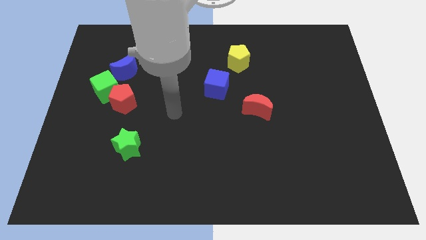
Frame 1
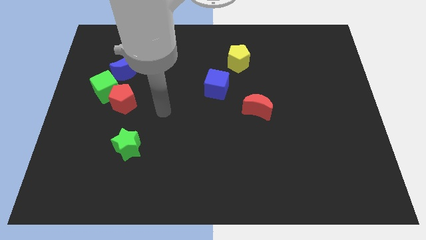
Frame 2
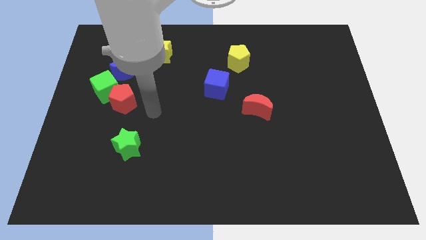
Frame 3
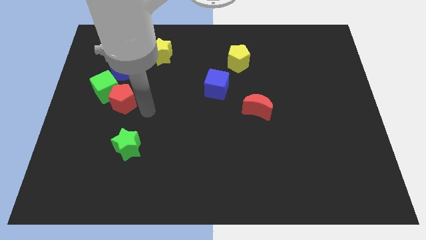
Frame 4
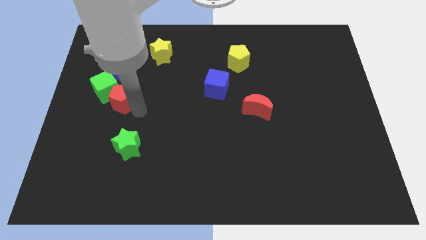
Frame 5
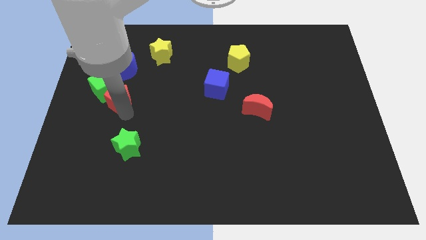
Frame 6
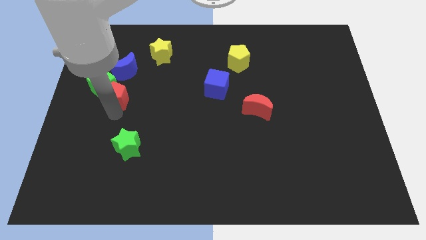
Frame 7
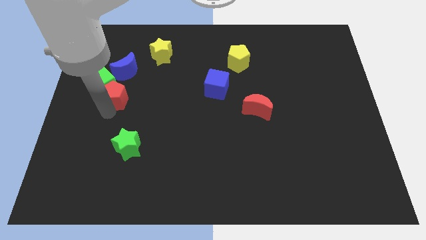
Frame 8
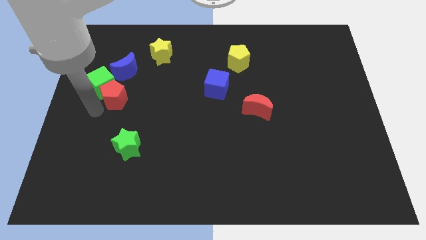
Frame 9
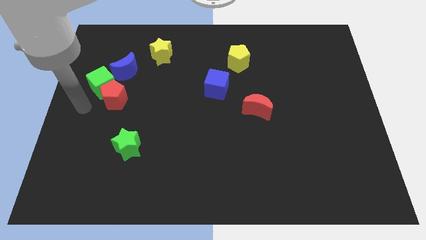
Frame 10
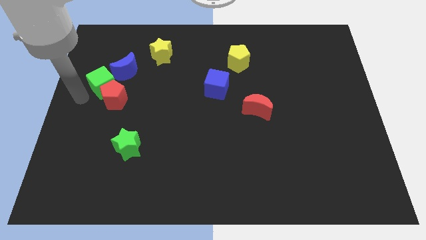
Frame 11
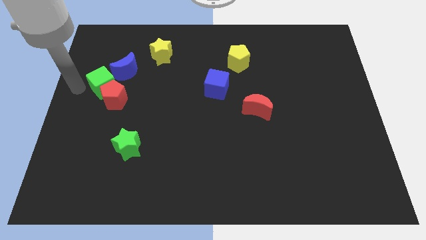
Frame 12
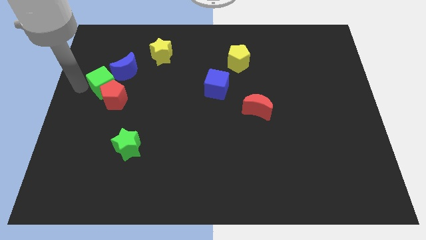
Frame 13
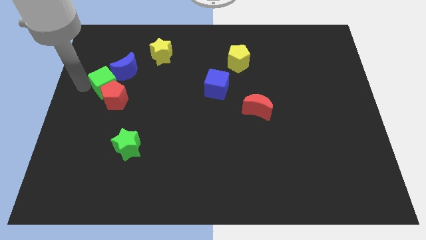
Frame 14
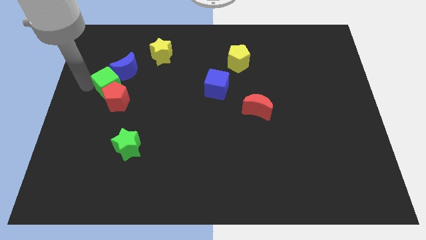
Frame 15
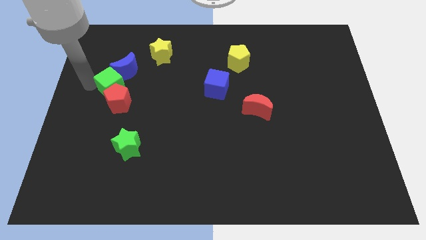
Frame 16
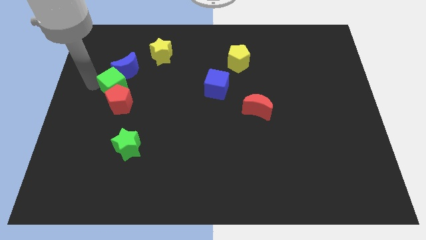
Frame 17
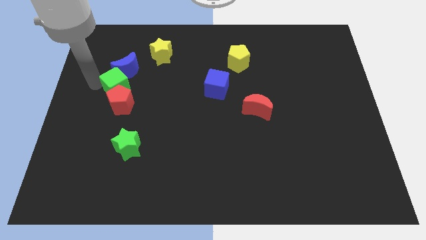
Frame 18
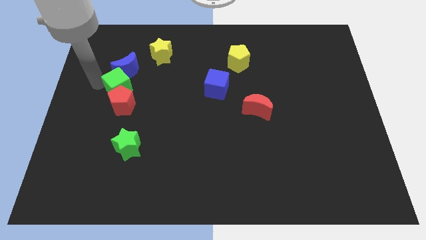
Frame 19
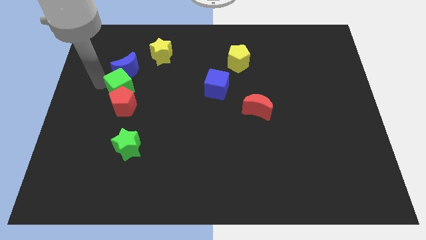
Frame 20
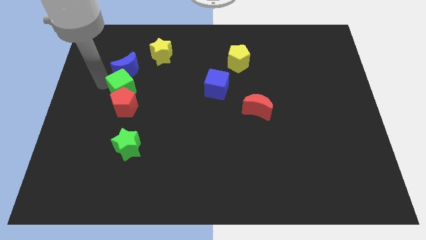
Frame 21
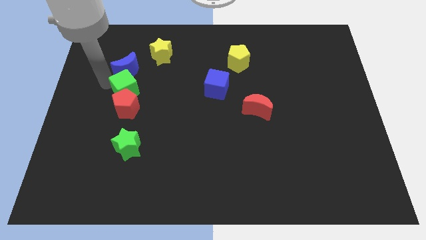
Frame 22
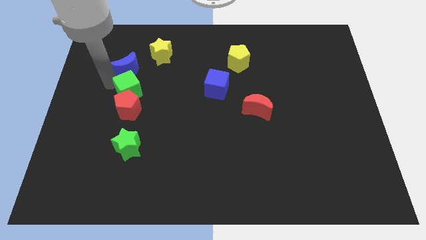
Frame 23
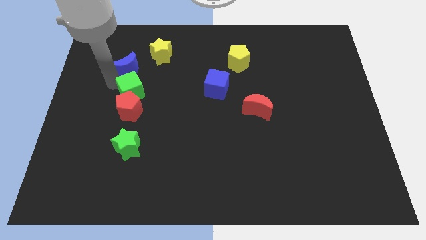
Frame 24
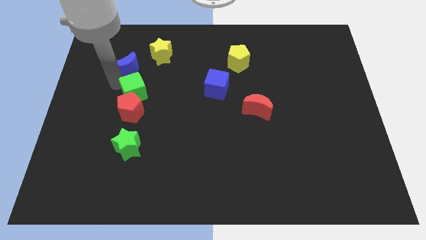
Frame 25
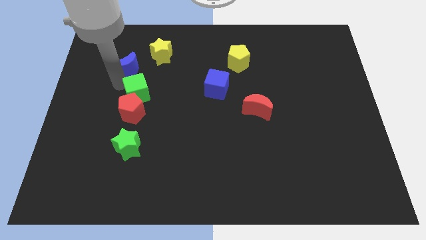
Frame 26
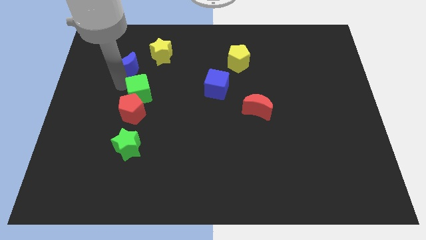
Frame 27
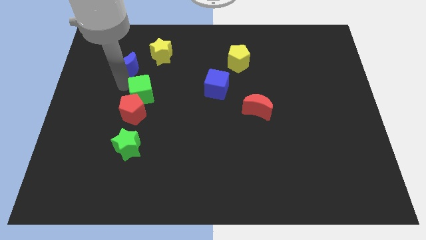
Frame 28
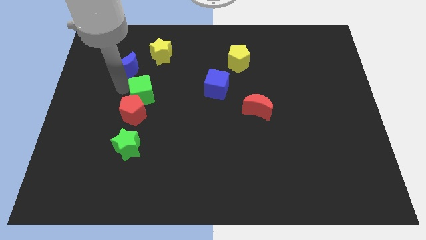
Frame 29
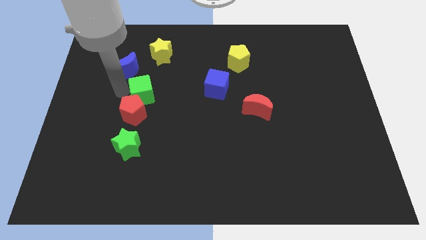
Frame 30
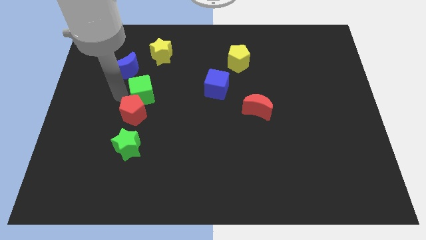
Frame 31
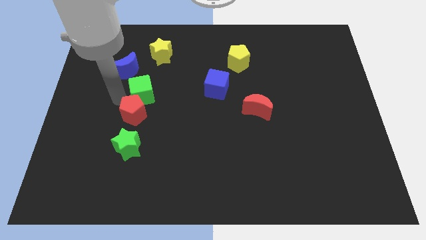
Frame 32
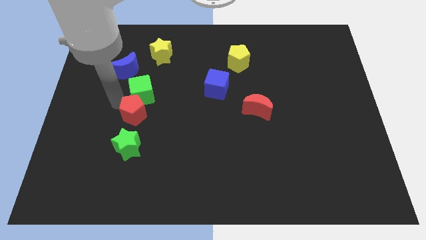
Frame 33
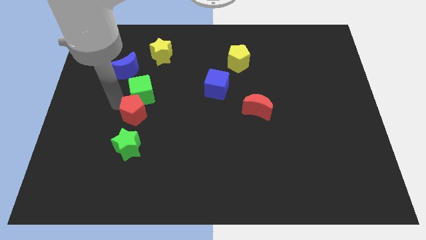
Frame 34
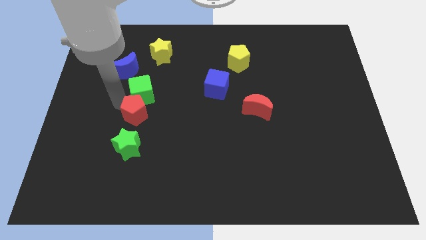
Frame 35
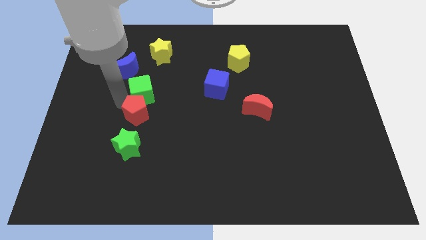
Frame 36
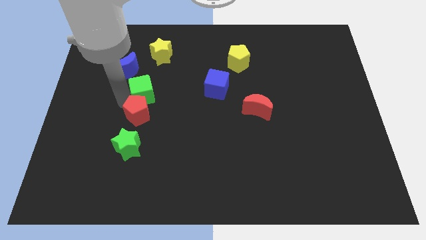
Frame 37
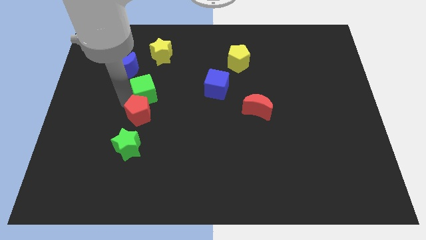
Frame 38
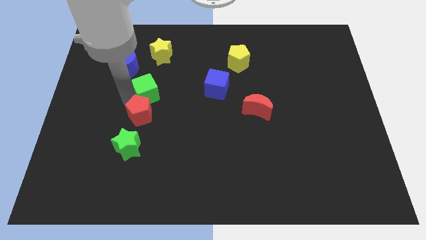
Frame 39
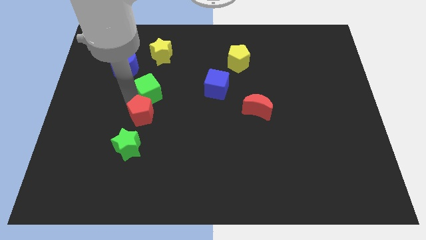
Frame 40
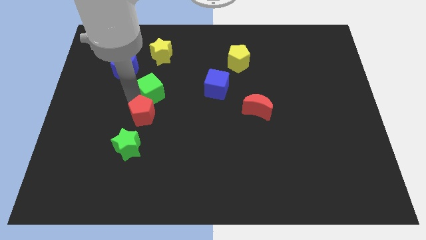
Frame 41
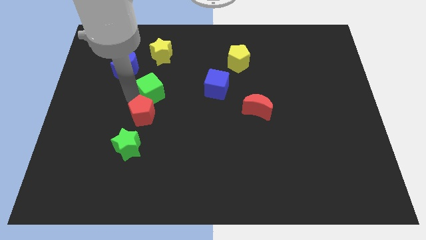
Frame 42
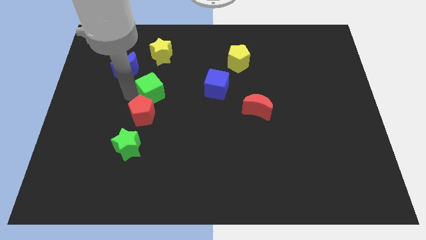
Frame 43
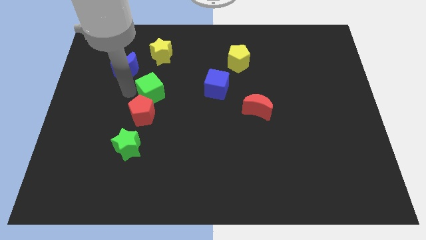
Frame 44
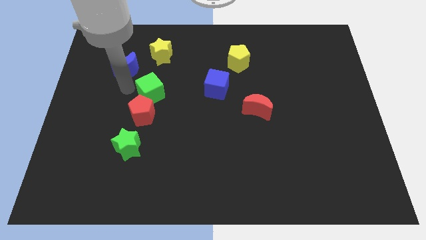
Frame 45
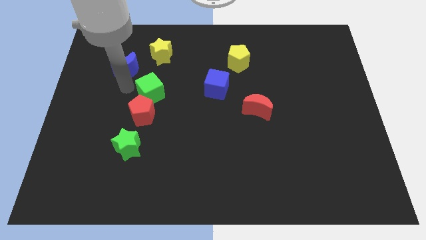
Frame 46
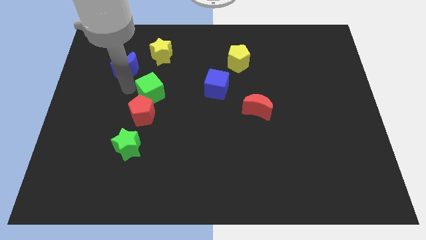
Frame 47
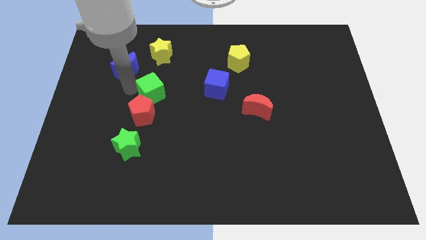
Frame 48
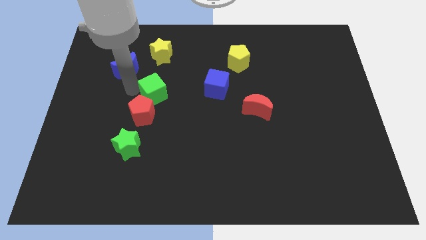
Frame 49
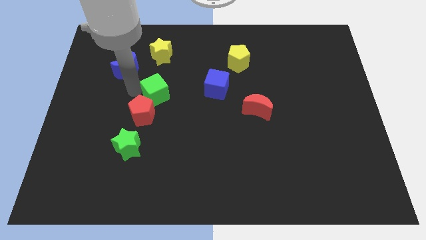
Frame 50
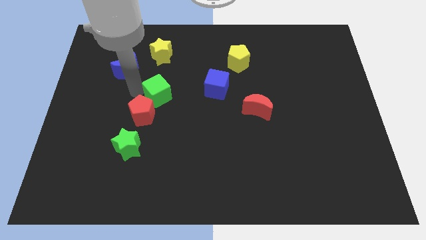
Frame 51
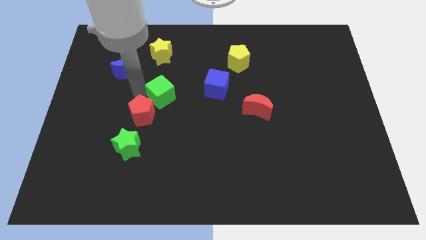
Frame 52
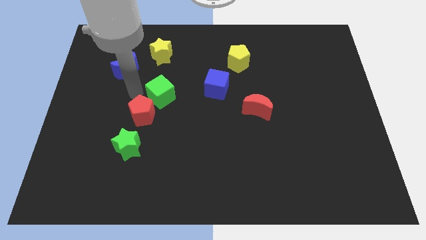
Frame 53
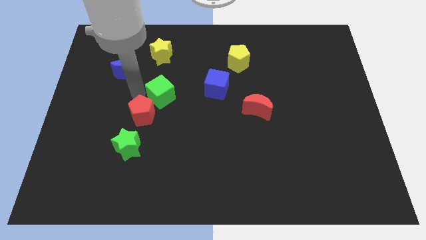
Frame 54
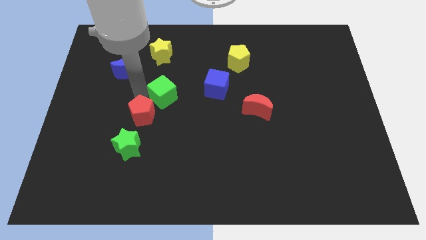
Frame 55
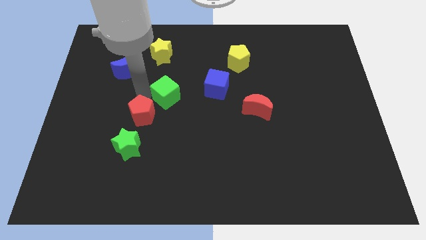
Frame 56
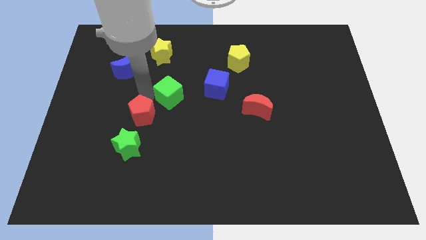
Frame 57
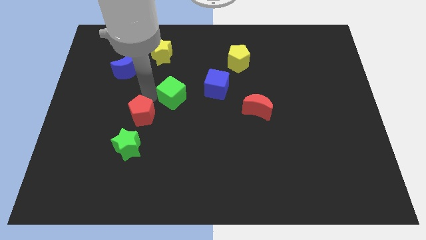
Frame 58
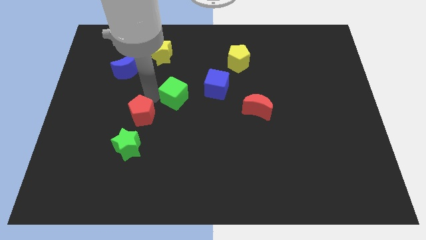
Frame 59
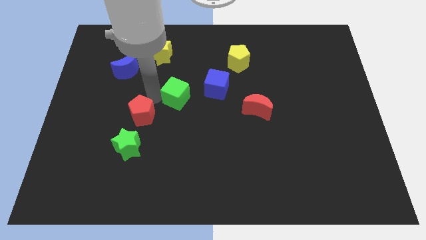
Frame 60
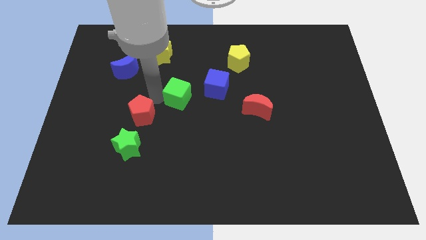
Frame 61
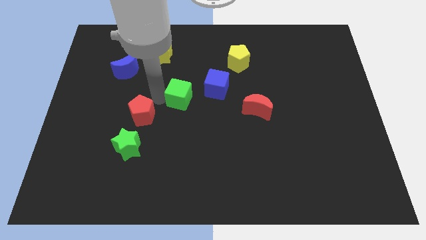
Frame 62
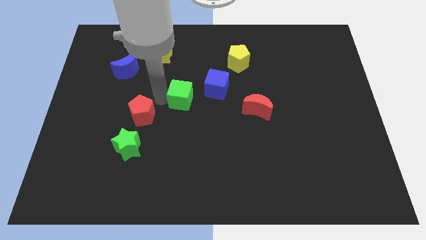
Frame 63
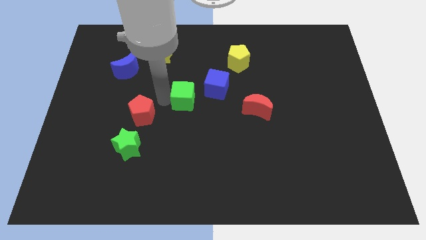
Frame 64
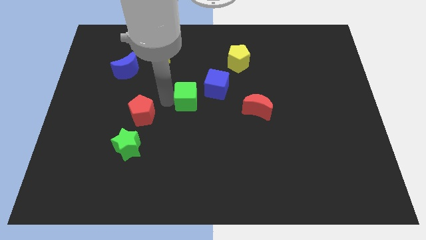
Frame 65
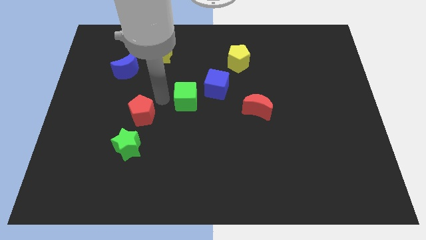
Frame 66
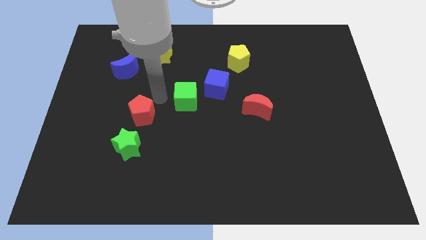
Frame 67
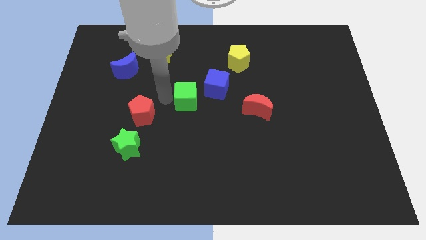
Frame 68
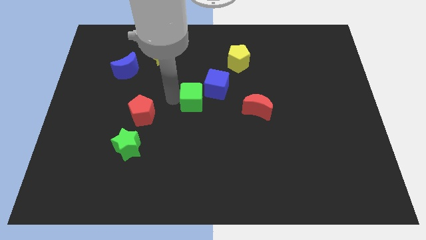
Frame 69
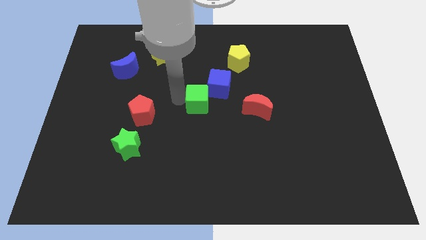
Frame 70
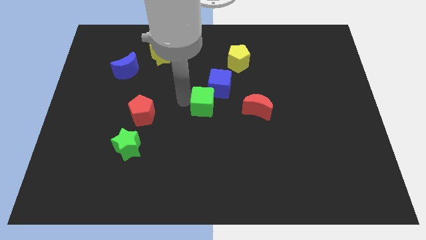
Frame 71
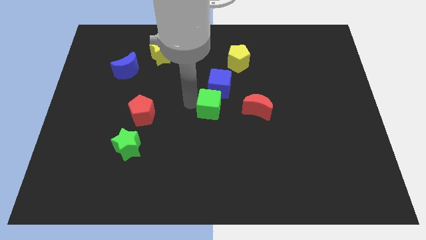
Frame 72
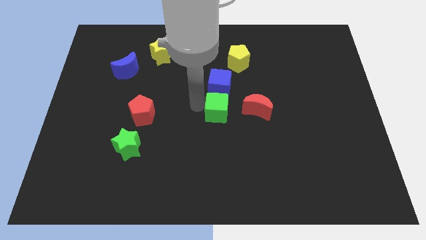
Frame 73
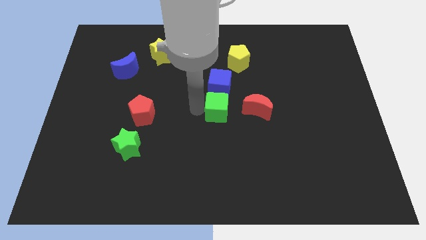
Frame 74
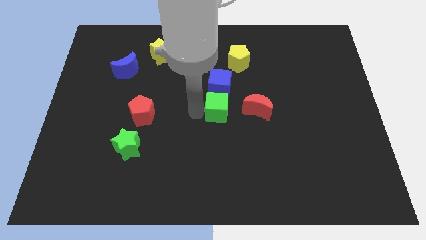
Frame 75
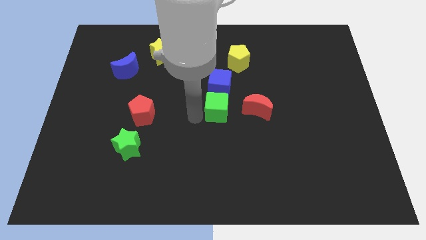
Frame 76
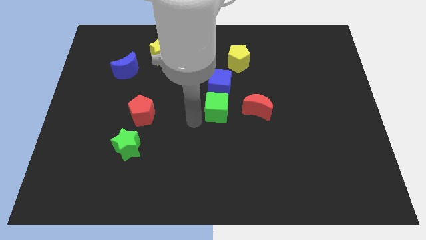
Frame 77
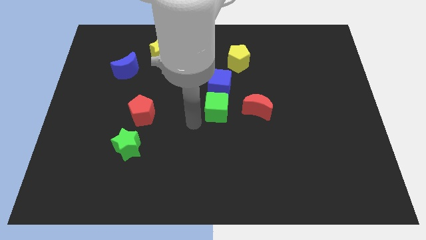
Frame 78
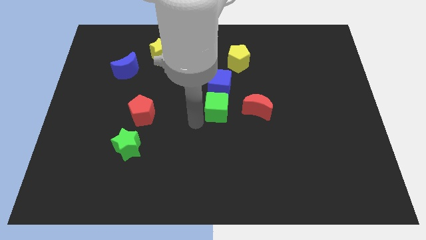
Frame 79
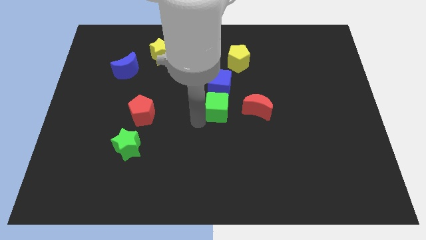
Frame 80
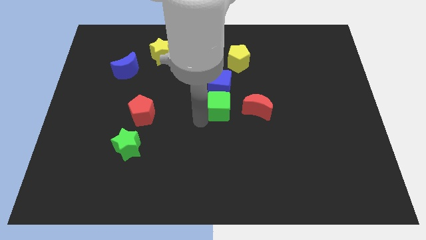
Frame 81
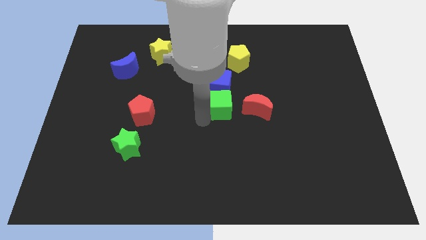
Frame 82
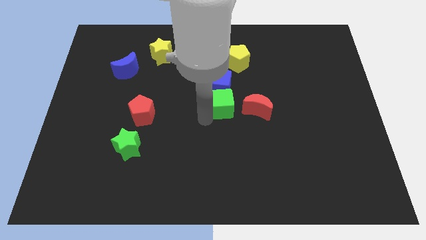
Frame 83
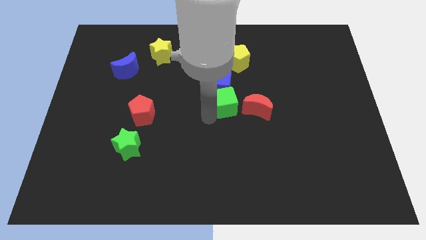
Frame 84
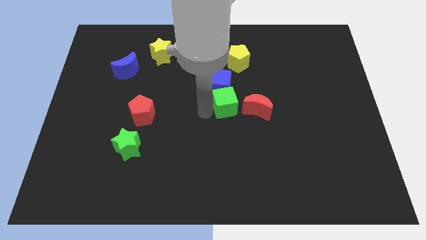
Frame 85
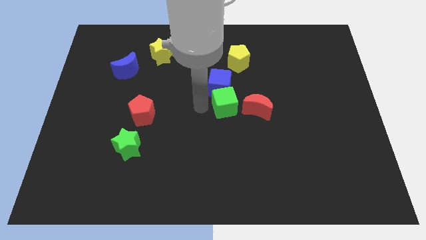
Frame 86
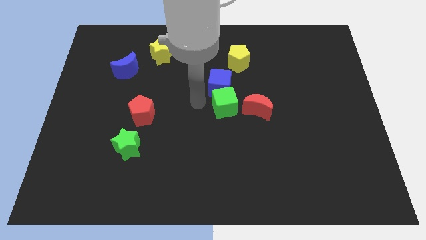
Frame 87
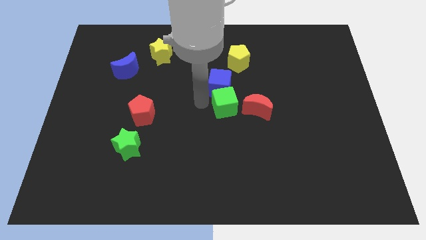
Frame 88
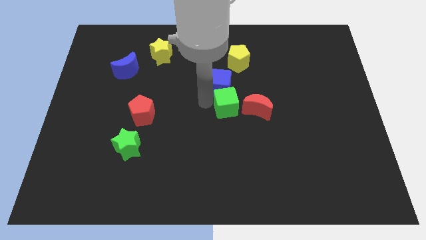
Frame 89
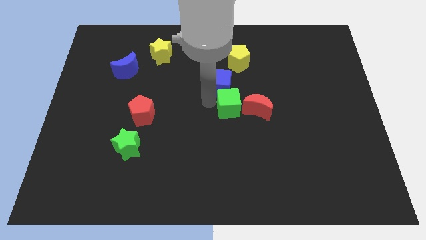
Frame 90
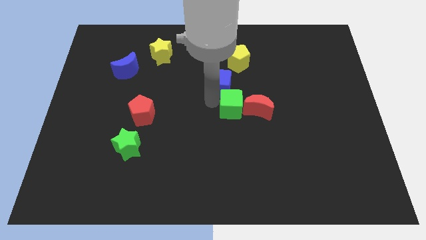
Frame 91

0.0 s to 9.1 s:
push the green cube next to the red moon
